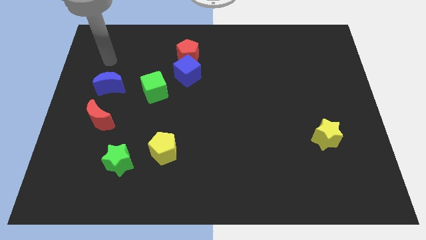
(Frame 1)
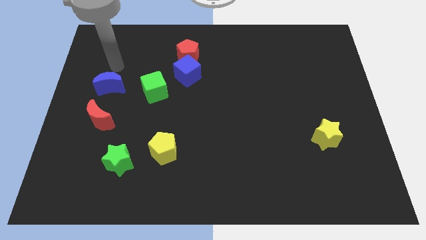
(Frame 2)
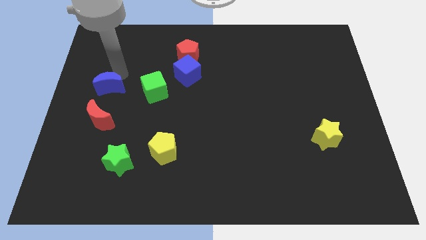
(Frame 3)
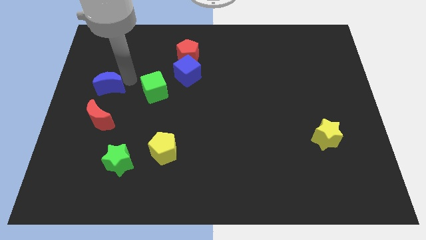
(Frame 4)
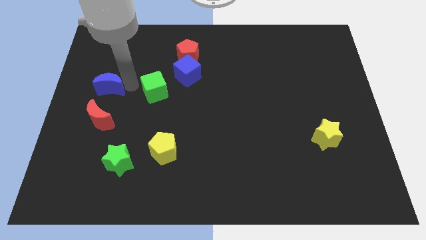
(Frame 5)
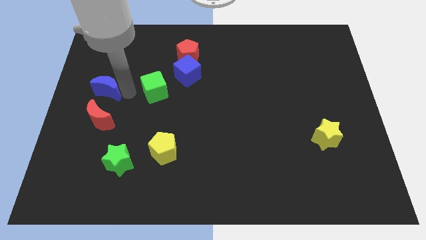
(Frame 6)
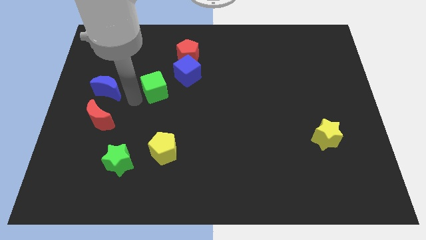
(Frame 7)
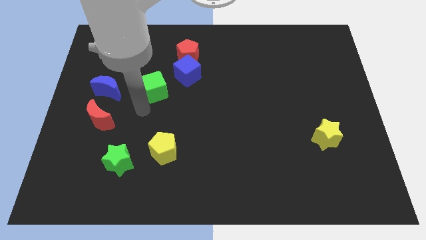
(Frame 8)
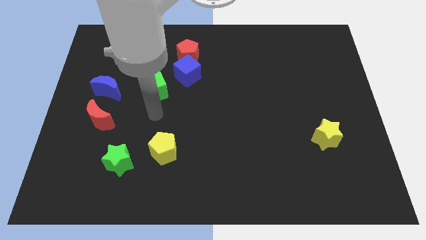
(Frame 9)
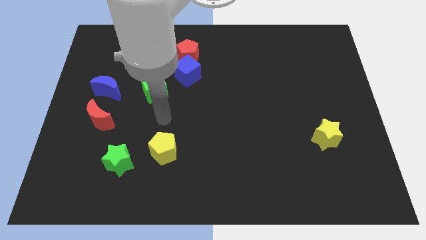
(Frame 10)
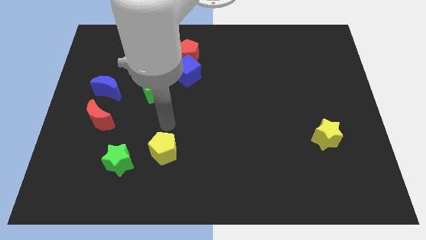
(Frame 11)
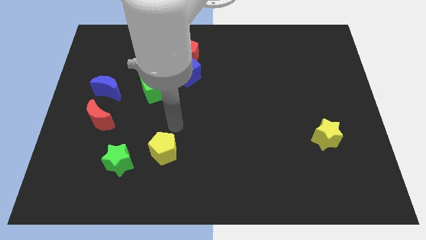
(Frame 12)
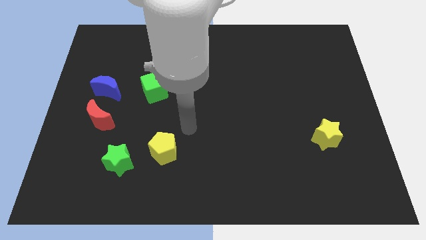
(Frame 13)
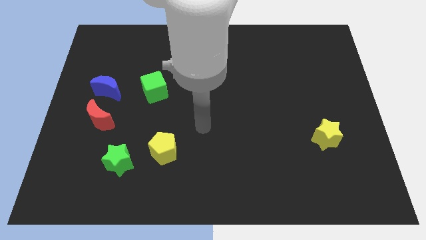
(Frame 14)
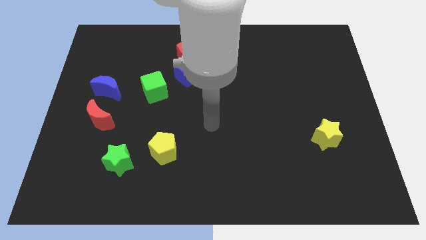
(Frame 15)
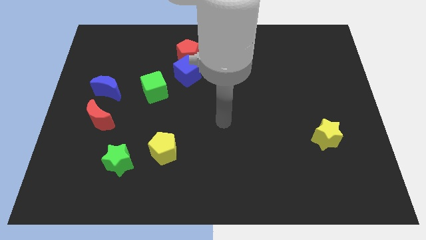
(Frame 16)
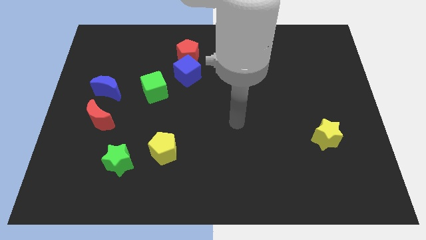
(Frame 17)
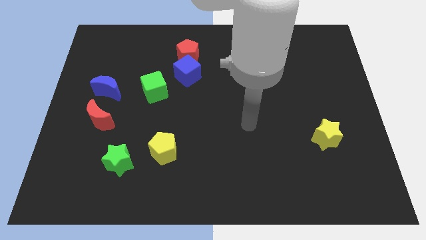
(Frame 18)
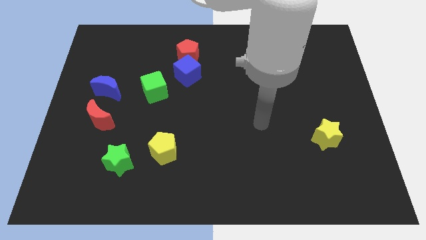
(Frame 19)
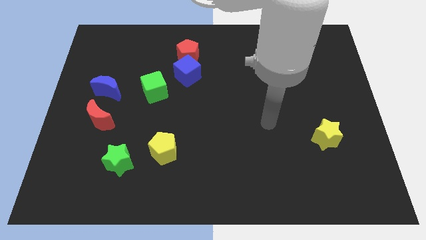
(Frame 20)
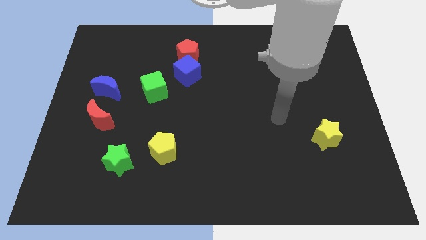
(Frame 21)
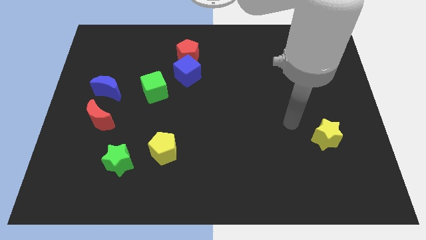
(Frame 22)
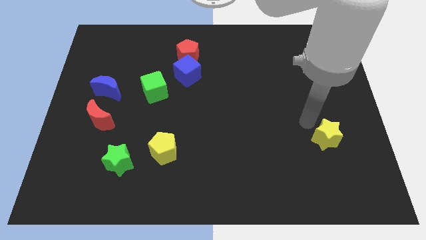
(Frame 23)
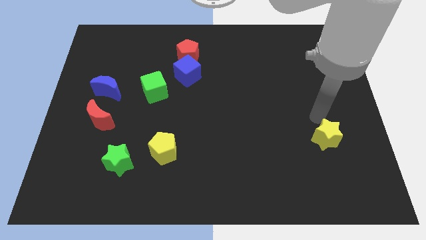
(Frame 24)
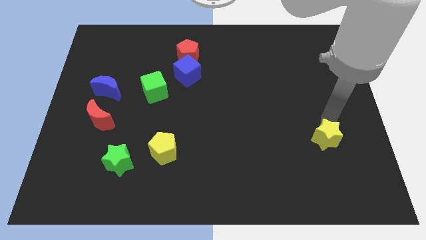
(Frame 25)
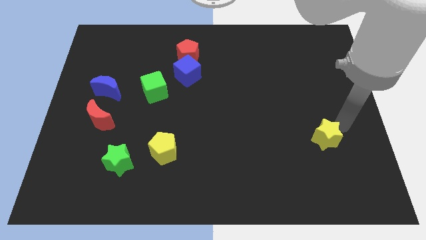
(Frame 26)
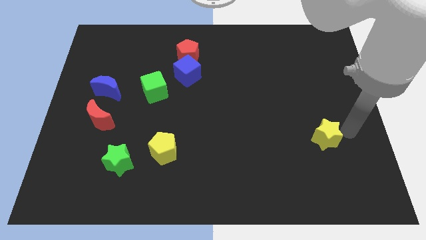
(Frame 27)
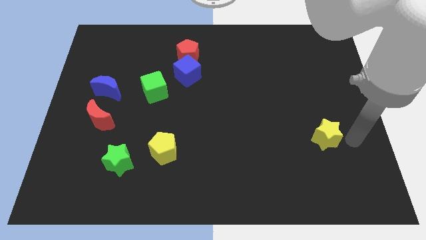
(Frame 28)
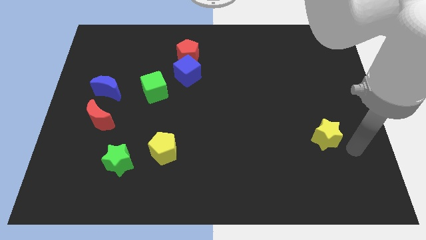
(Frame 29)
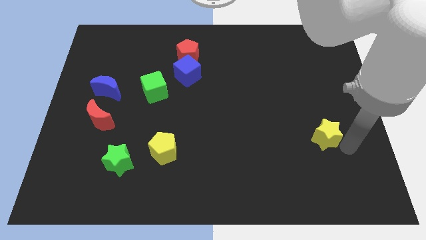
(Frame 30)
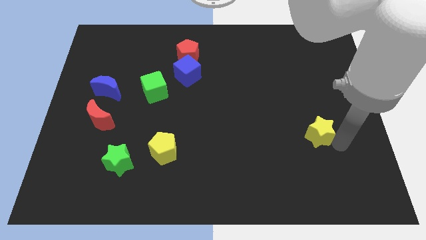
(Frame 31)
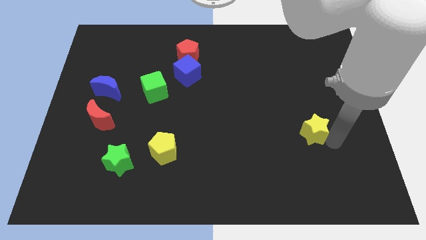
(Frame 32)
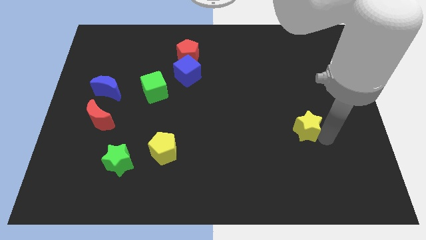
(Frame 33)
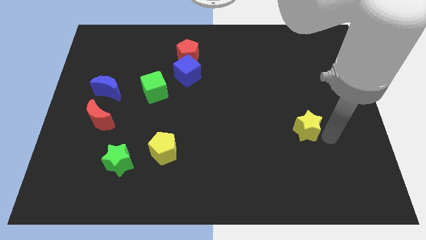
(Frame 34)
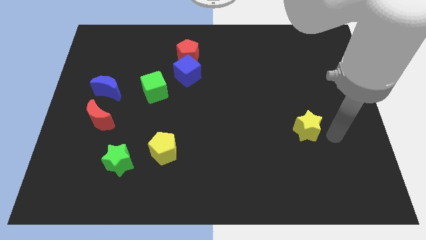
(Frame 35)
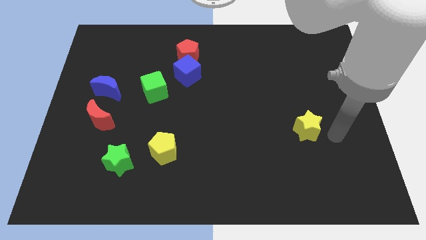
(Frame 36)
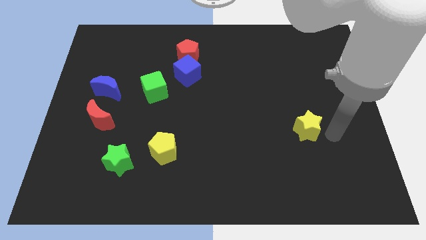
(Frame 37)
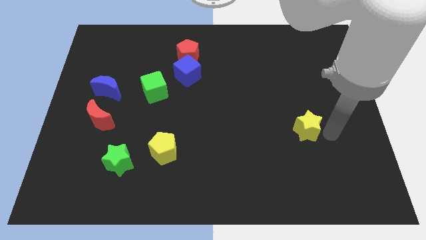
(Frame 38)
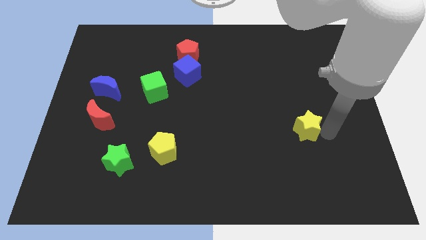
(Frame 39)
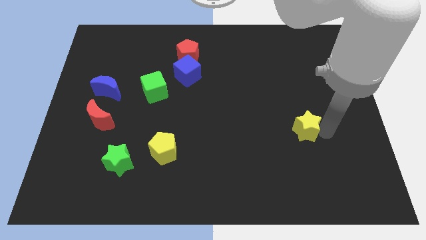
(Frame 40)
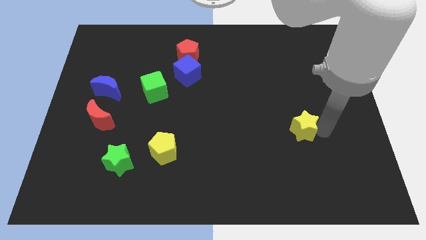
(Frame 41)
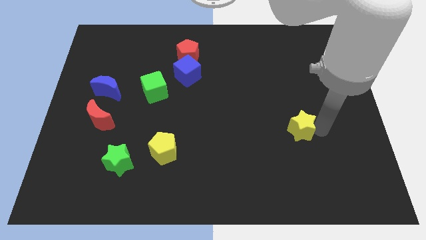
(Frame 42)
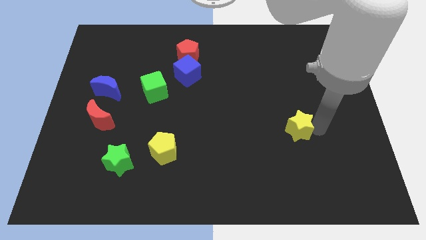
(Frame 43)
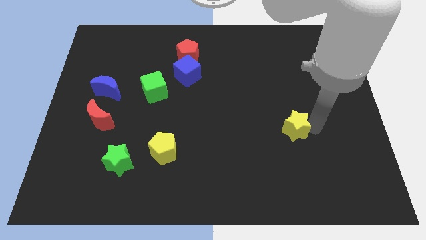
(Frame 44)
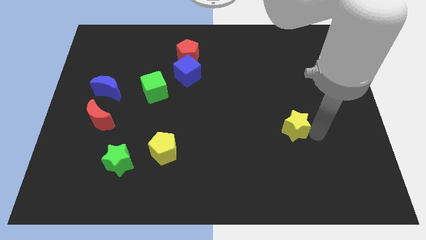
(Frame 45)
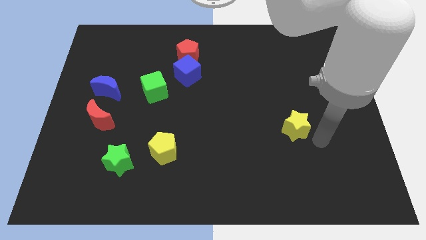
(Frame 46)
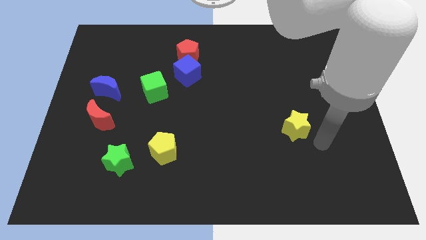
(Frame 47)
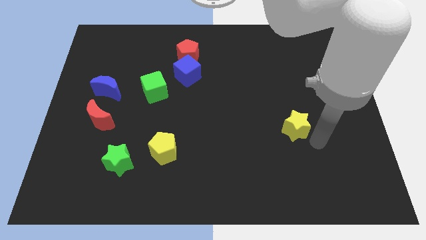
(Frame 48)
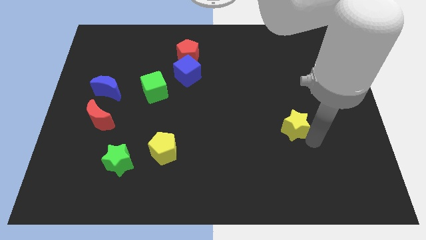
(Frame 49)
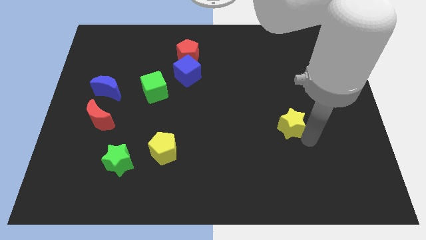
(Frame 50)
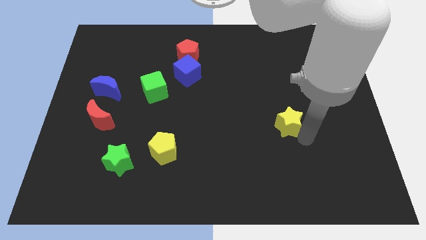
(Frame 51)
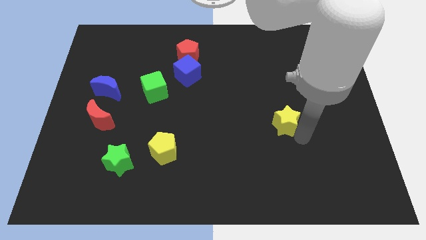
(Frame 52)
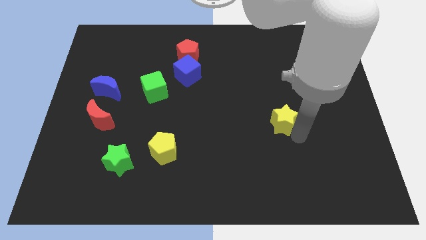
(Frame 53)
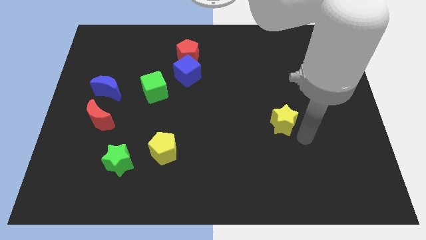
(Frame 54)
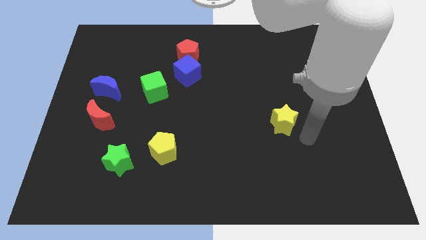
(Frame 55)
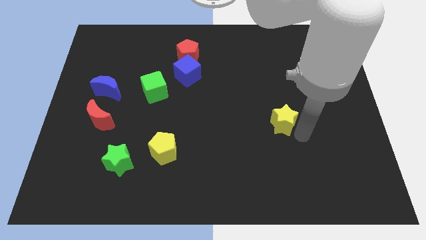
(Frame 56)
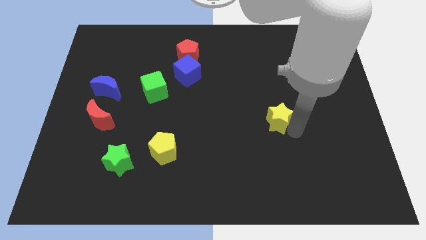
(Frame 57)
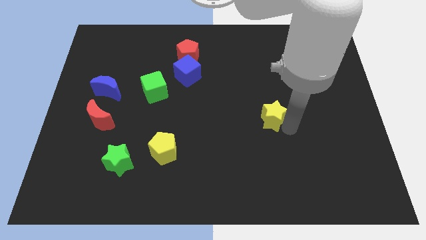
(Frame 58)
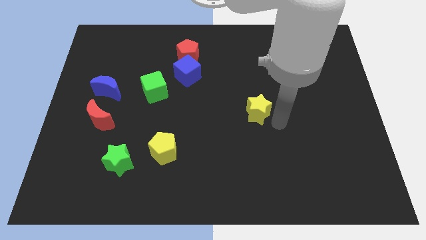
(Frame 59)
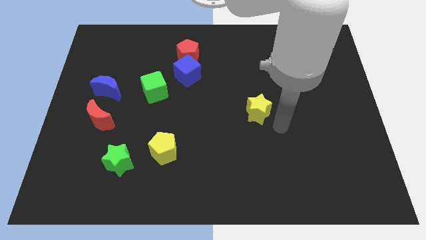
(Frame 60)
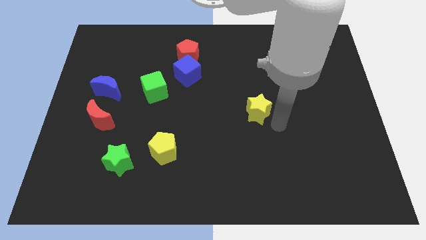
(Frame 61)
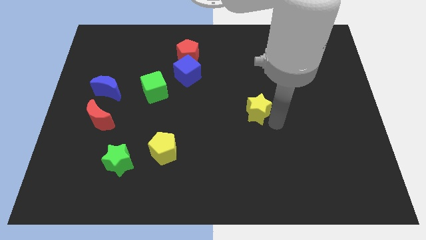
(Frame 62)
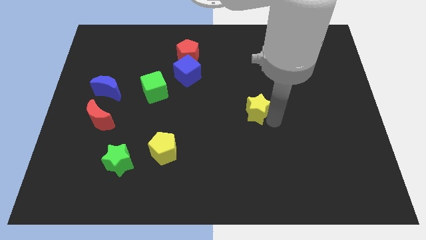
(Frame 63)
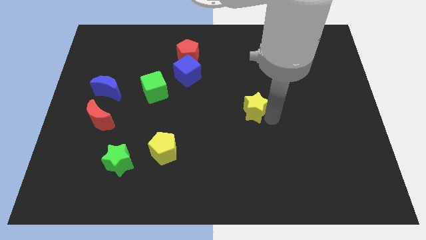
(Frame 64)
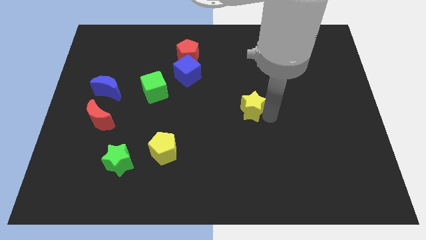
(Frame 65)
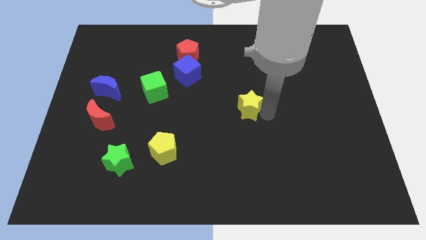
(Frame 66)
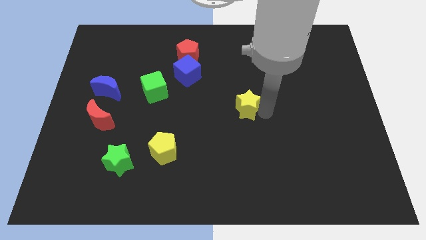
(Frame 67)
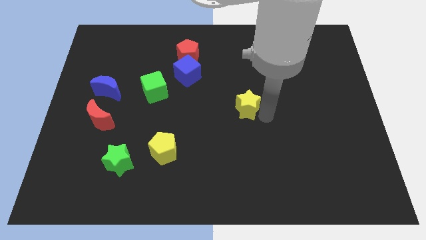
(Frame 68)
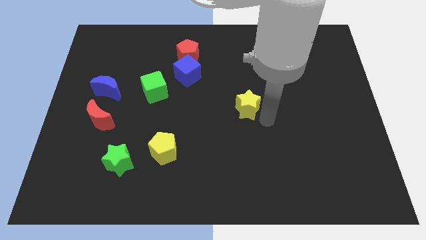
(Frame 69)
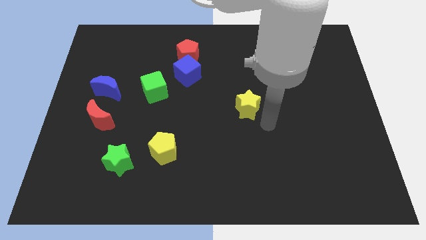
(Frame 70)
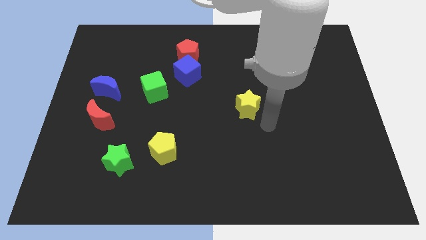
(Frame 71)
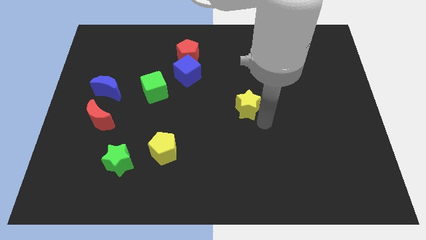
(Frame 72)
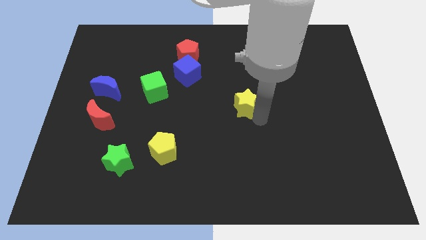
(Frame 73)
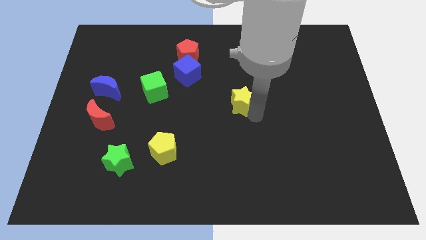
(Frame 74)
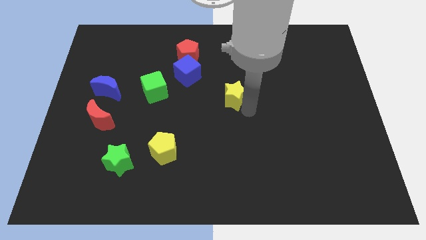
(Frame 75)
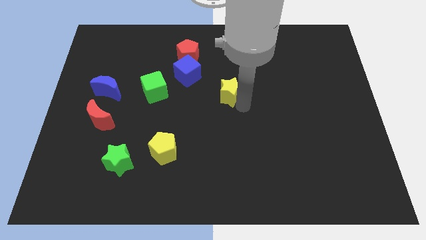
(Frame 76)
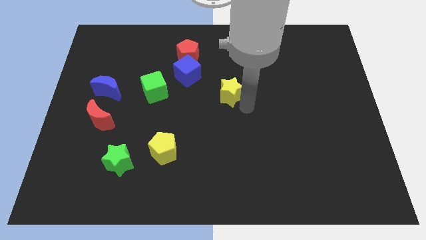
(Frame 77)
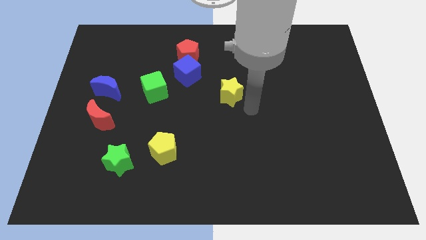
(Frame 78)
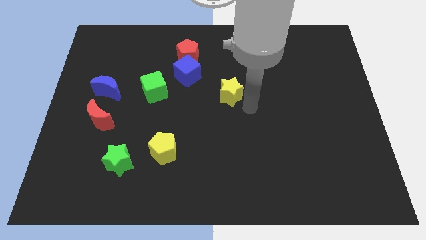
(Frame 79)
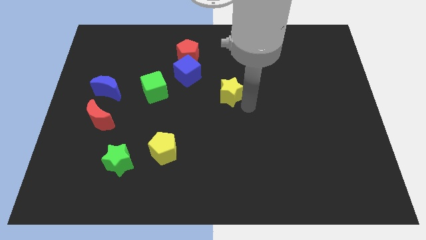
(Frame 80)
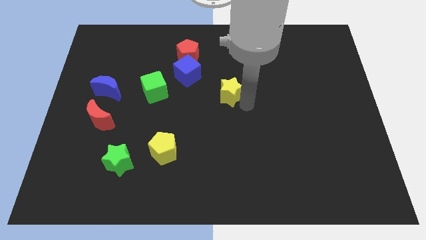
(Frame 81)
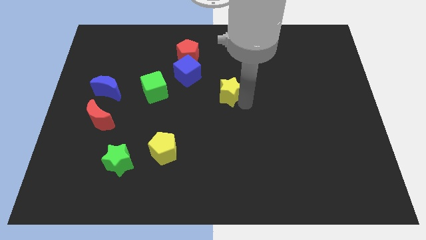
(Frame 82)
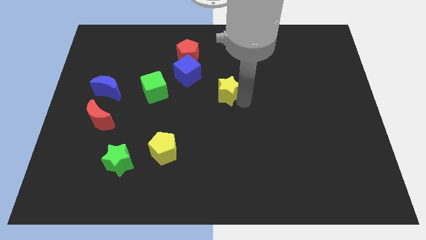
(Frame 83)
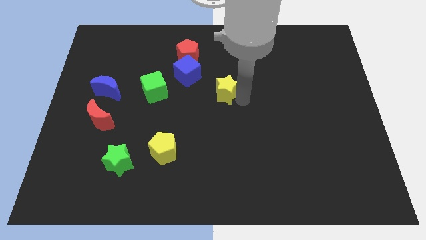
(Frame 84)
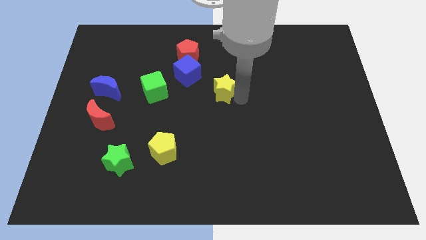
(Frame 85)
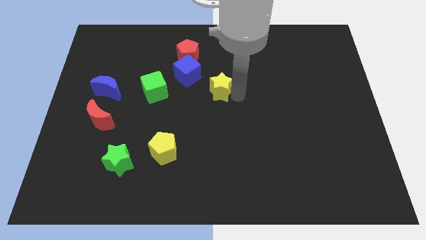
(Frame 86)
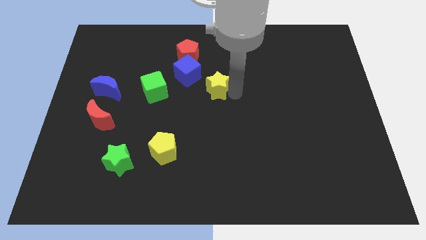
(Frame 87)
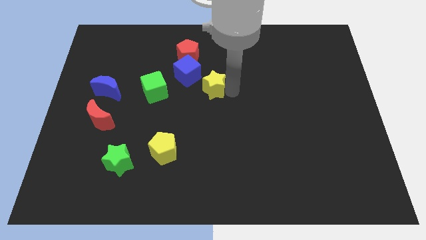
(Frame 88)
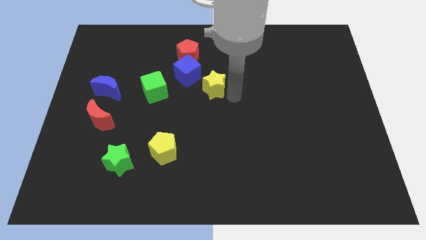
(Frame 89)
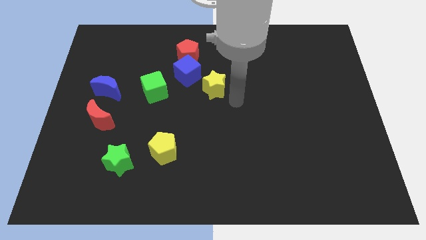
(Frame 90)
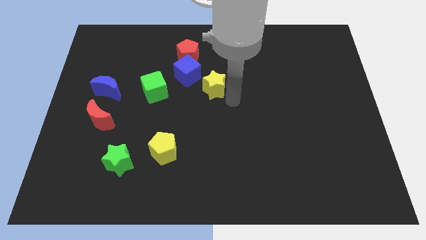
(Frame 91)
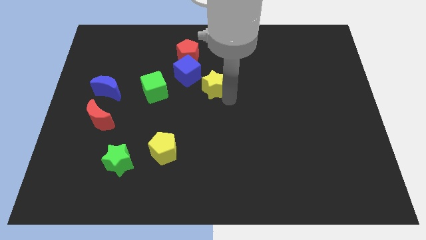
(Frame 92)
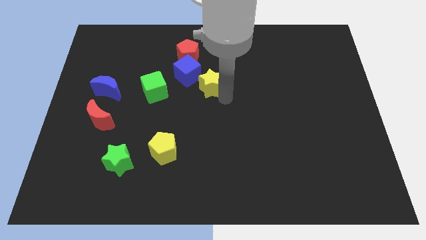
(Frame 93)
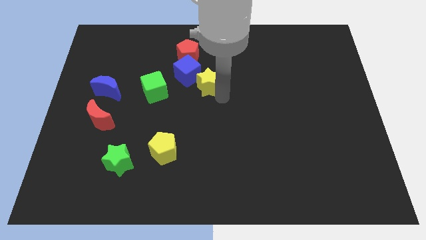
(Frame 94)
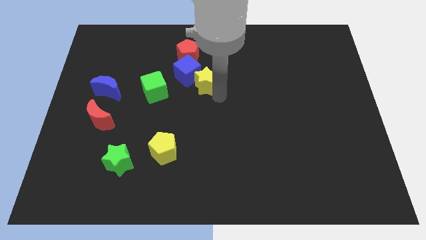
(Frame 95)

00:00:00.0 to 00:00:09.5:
put the yellow star to the blue cube
